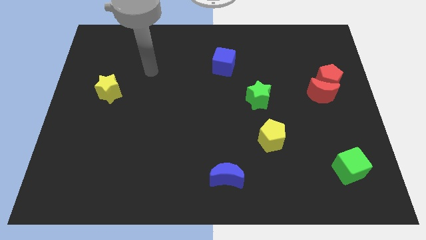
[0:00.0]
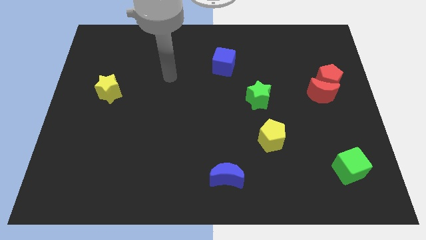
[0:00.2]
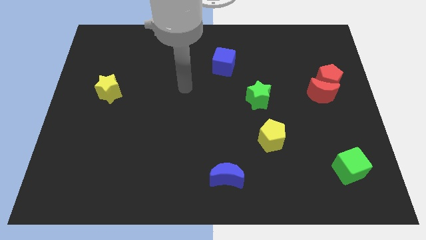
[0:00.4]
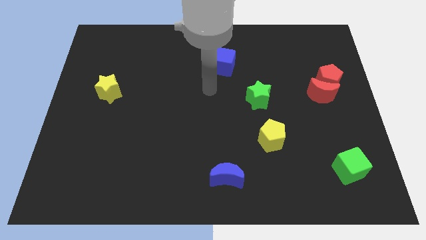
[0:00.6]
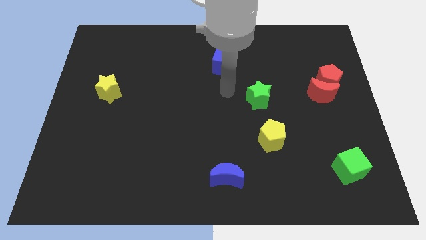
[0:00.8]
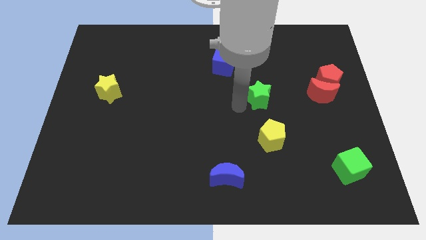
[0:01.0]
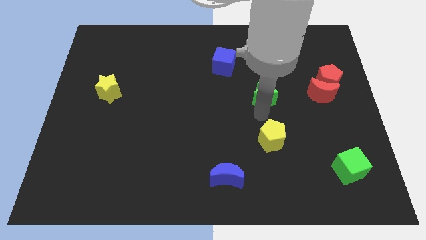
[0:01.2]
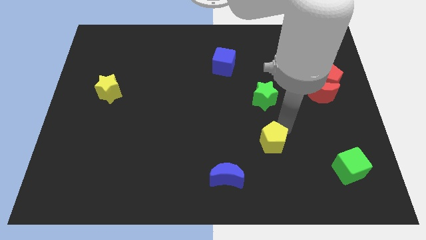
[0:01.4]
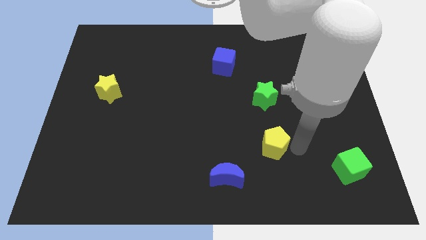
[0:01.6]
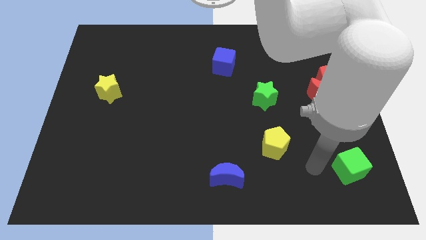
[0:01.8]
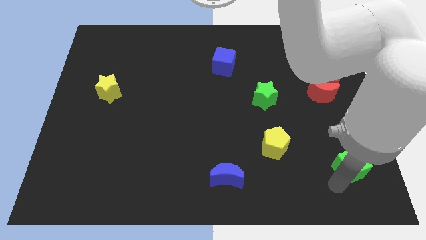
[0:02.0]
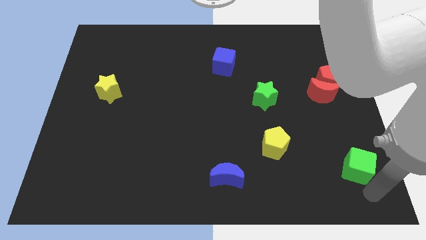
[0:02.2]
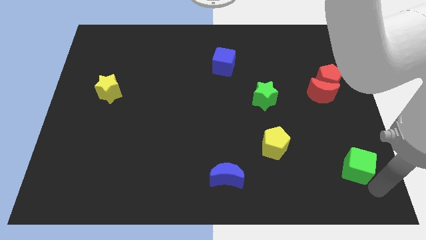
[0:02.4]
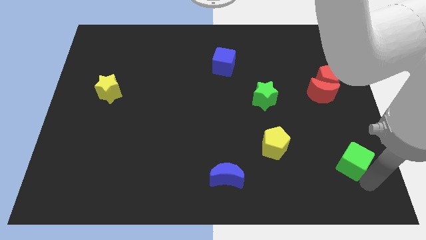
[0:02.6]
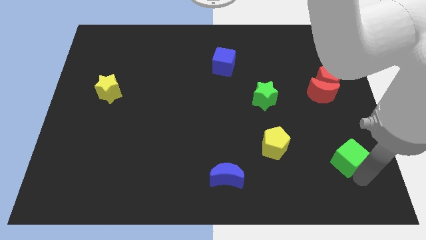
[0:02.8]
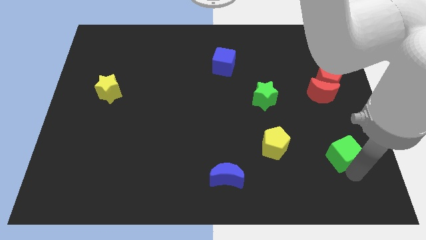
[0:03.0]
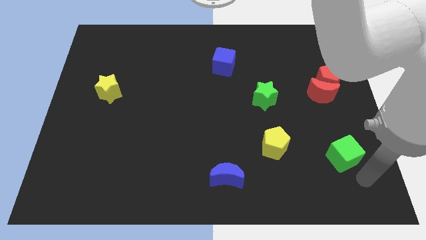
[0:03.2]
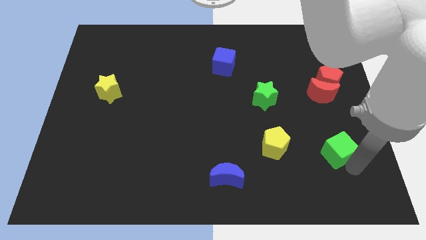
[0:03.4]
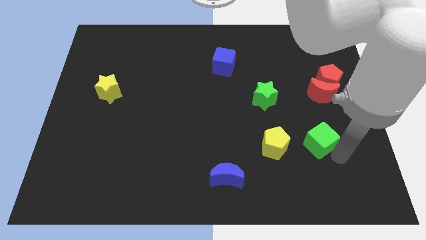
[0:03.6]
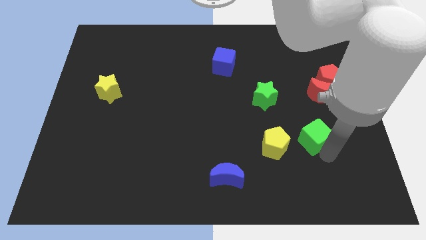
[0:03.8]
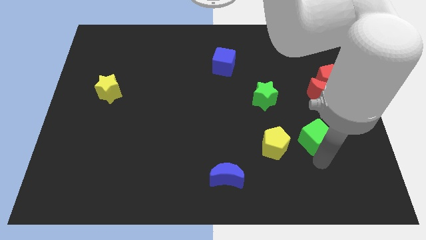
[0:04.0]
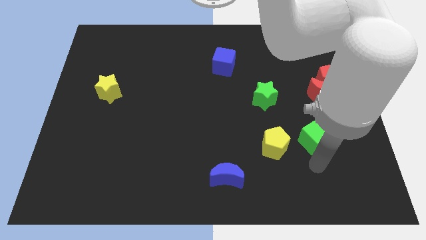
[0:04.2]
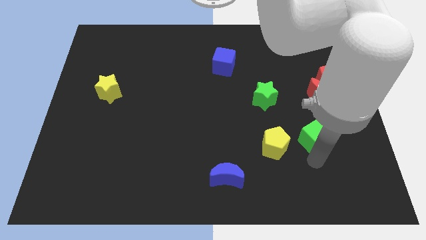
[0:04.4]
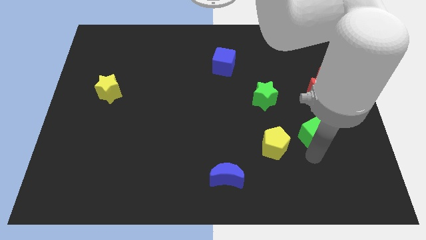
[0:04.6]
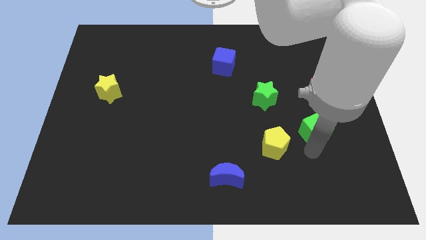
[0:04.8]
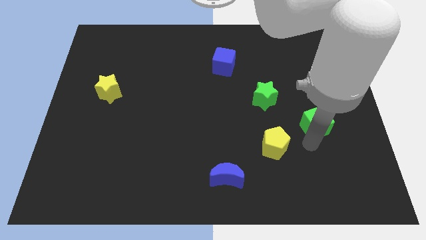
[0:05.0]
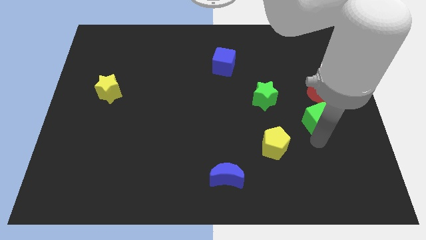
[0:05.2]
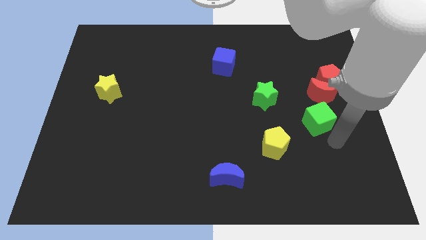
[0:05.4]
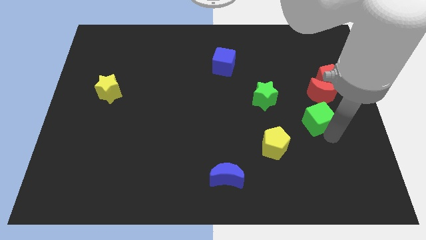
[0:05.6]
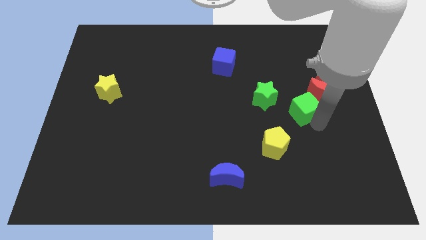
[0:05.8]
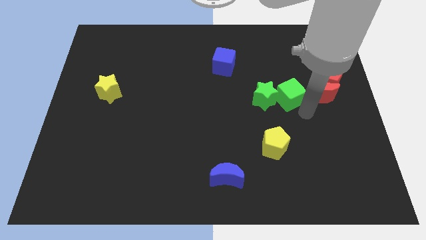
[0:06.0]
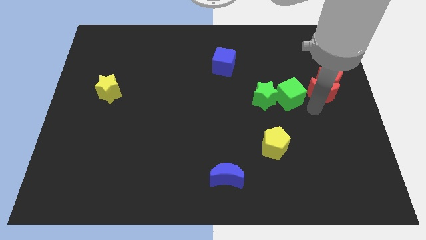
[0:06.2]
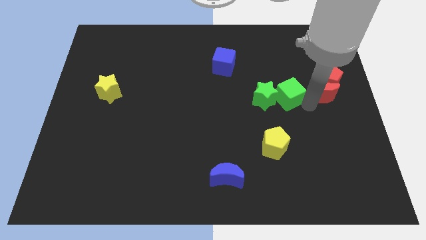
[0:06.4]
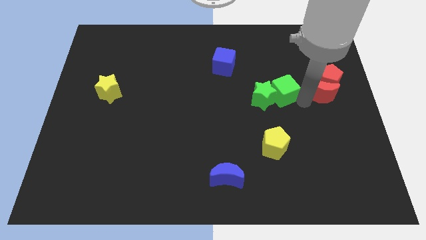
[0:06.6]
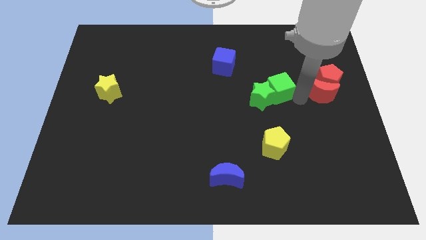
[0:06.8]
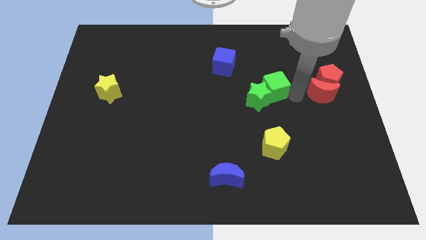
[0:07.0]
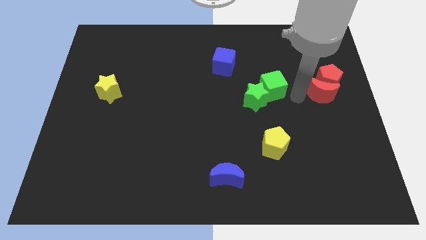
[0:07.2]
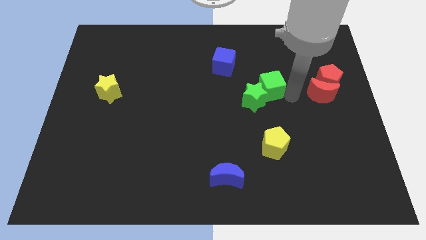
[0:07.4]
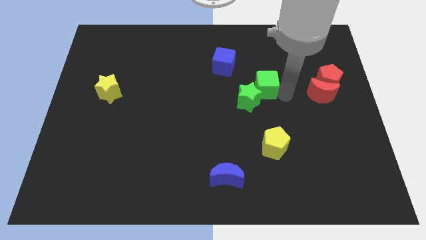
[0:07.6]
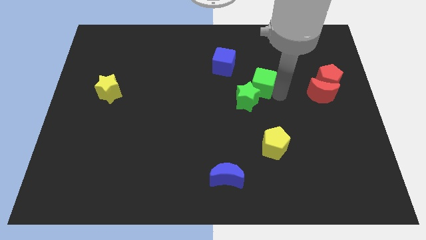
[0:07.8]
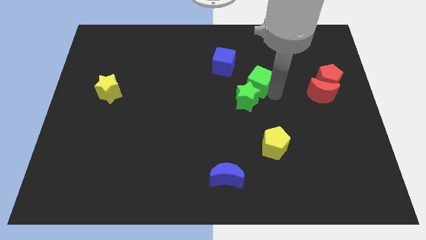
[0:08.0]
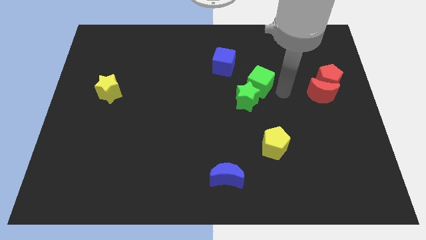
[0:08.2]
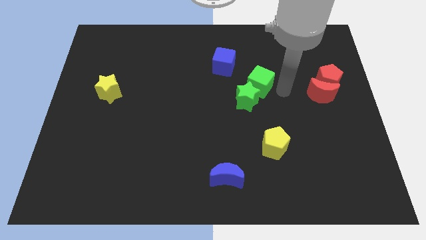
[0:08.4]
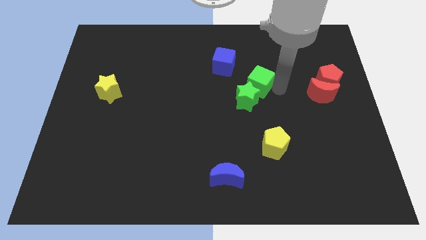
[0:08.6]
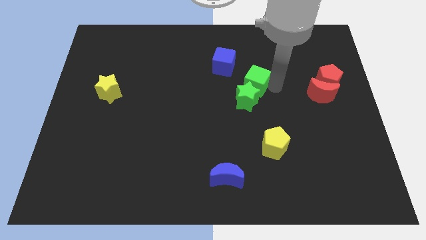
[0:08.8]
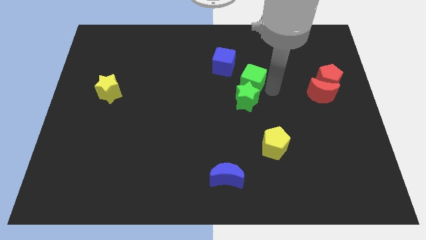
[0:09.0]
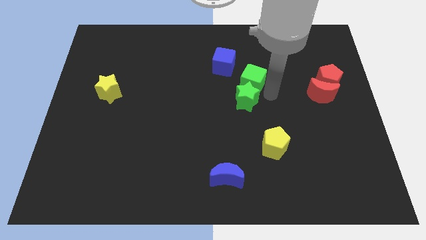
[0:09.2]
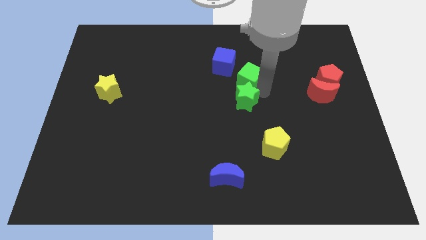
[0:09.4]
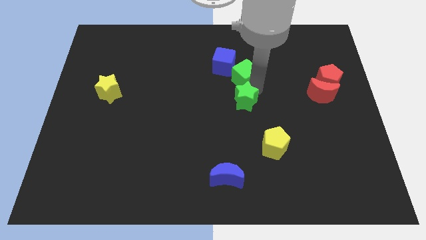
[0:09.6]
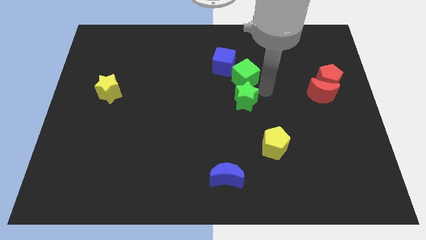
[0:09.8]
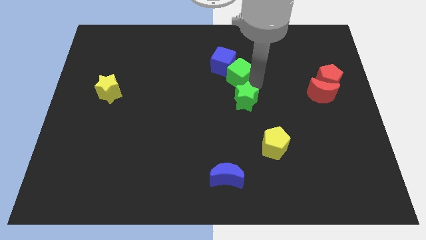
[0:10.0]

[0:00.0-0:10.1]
slide the green cube next to the blue cube

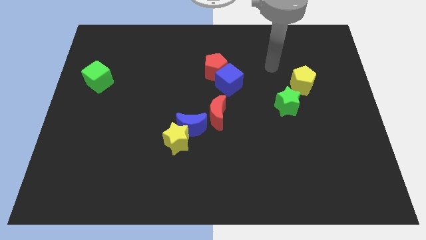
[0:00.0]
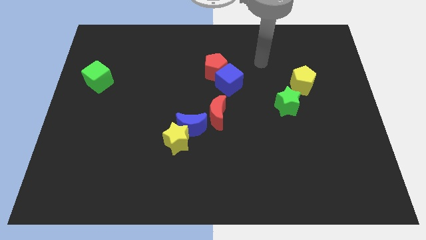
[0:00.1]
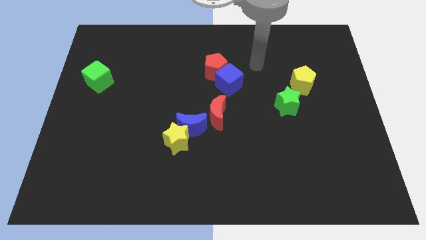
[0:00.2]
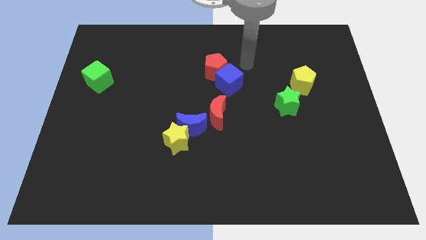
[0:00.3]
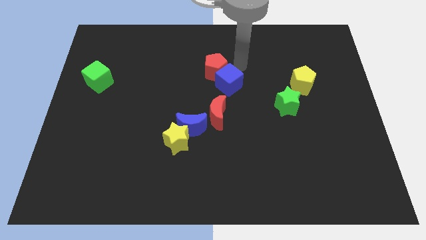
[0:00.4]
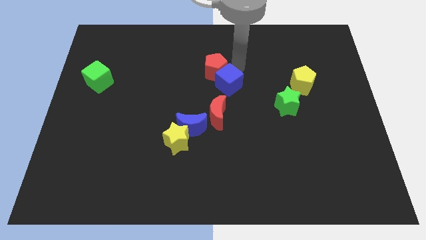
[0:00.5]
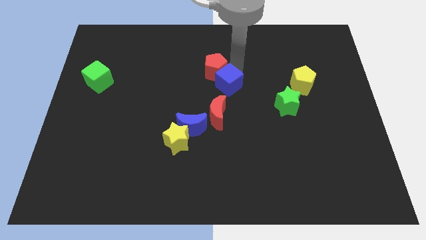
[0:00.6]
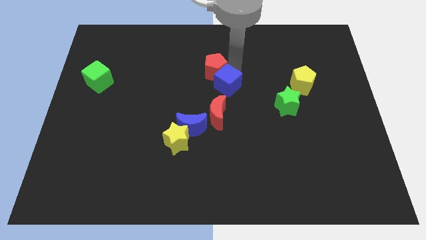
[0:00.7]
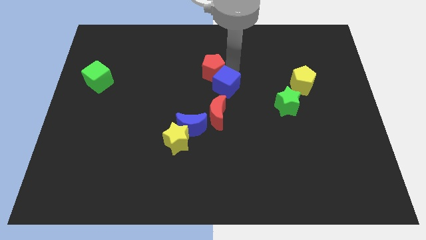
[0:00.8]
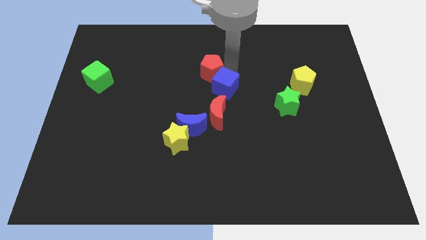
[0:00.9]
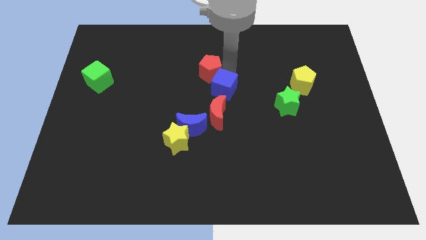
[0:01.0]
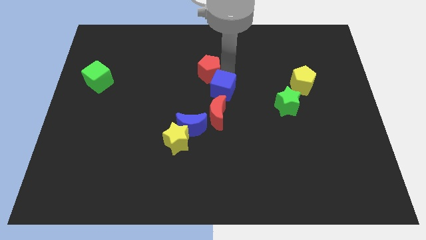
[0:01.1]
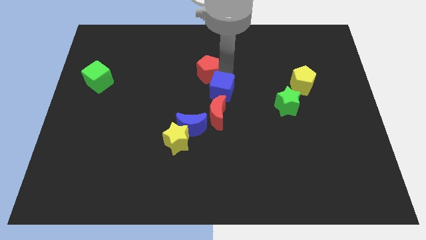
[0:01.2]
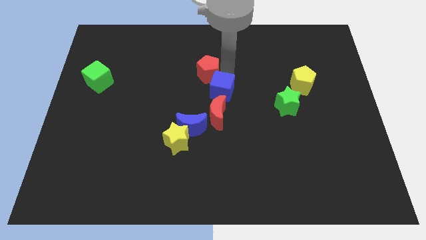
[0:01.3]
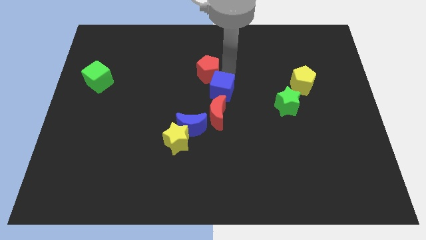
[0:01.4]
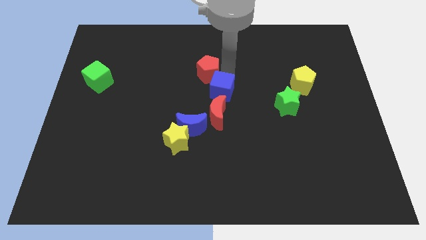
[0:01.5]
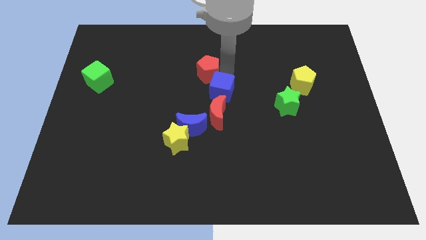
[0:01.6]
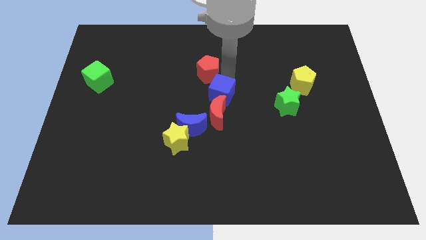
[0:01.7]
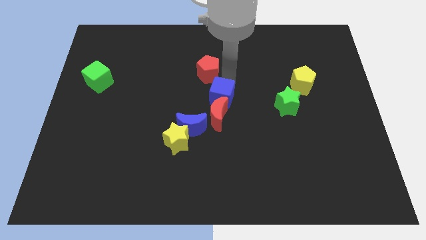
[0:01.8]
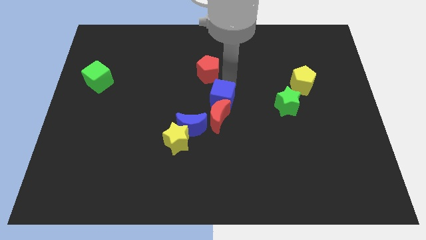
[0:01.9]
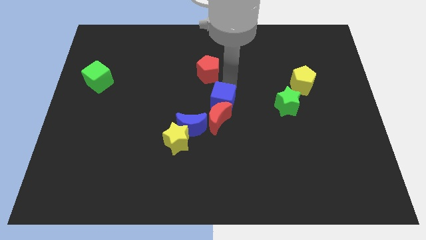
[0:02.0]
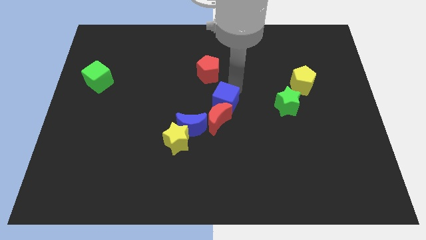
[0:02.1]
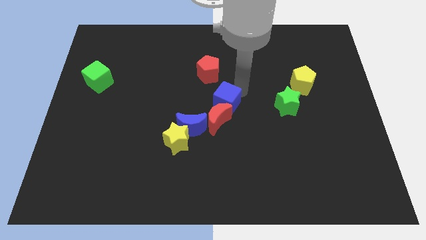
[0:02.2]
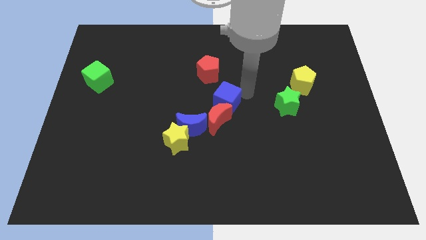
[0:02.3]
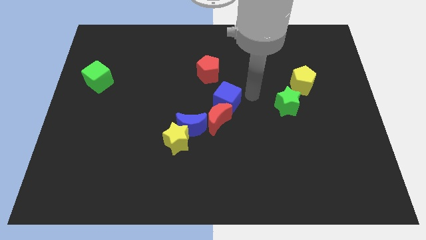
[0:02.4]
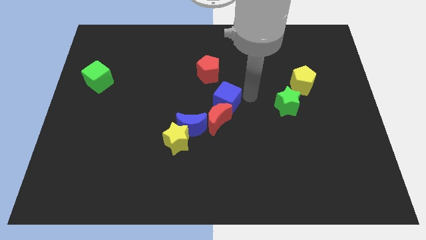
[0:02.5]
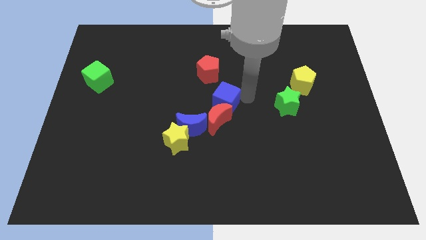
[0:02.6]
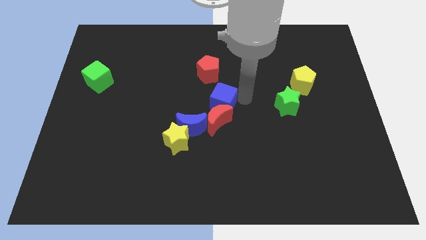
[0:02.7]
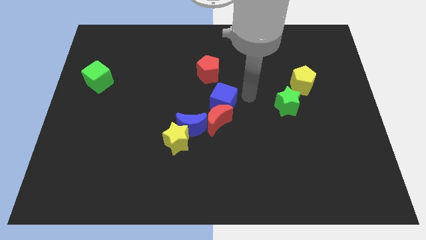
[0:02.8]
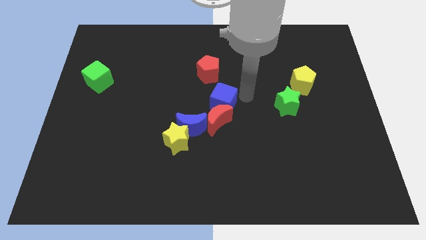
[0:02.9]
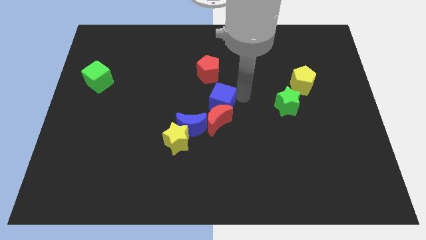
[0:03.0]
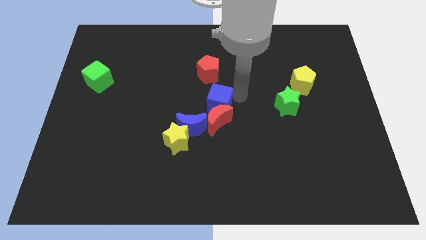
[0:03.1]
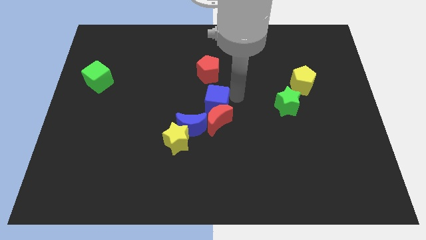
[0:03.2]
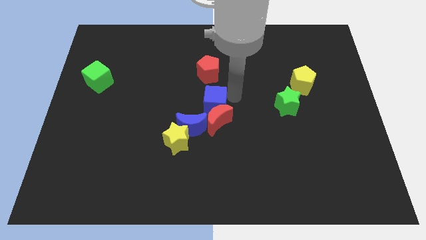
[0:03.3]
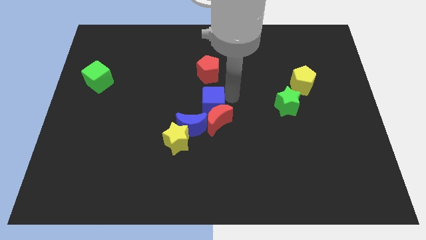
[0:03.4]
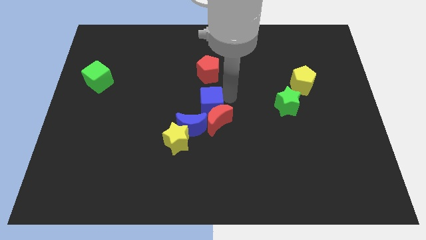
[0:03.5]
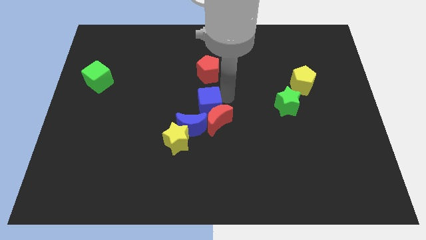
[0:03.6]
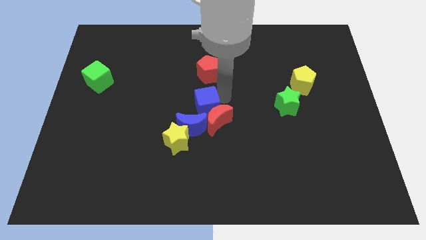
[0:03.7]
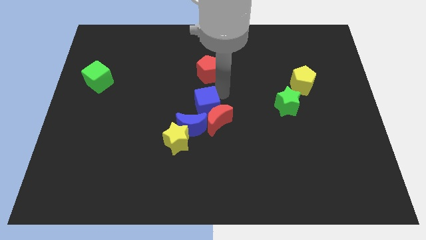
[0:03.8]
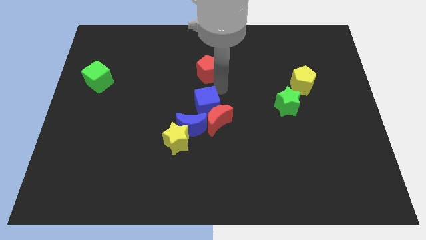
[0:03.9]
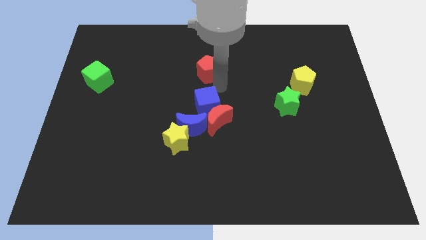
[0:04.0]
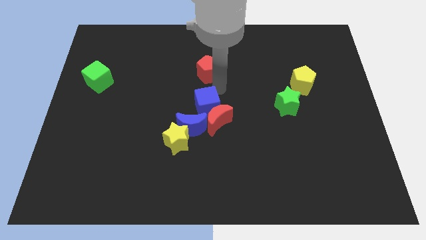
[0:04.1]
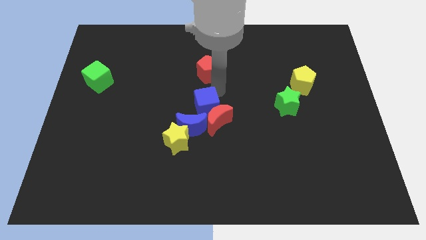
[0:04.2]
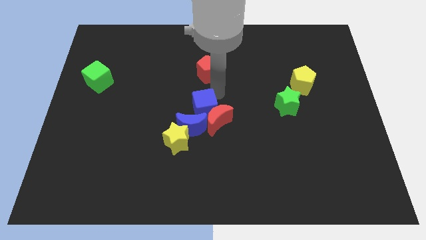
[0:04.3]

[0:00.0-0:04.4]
put the blue cube close to the blue moon
